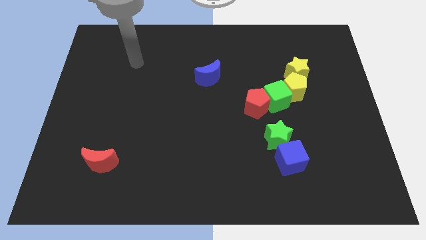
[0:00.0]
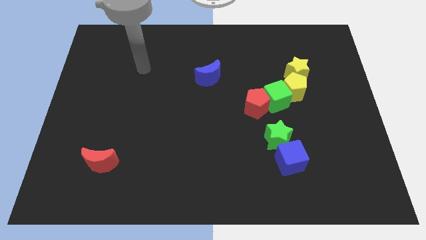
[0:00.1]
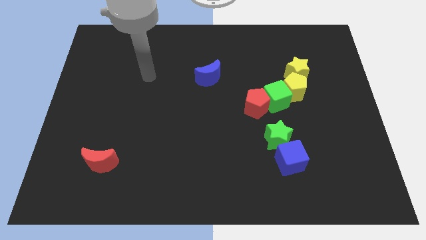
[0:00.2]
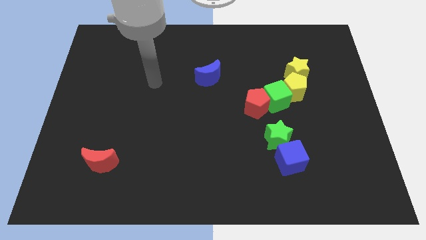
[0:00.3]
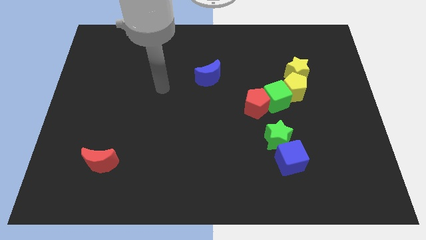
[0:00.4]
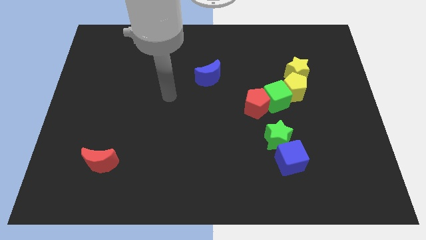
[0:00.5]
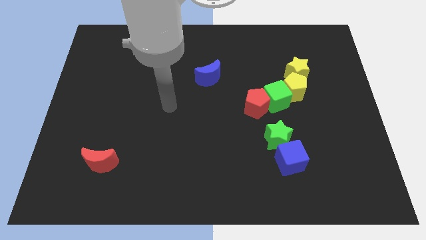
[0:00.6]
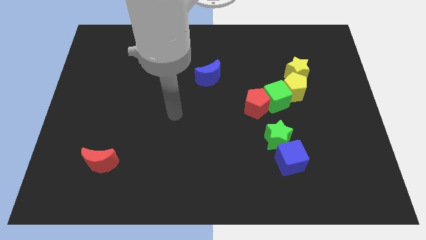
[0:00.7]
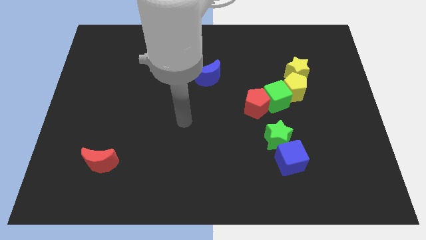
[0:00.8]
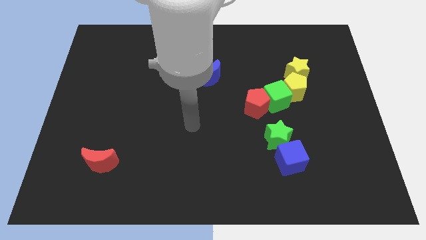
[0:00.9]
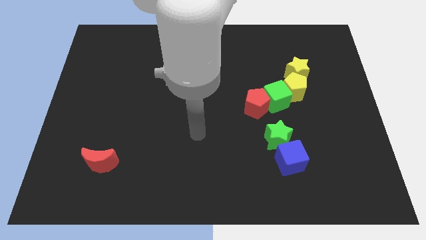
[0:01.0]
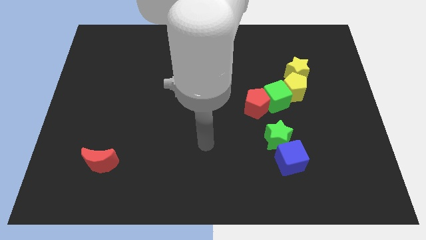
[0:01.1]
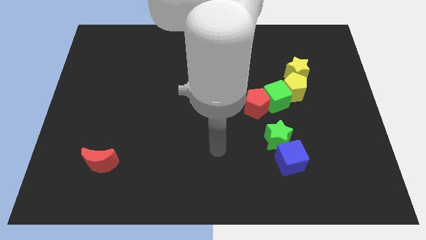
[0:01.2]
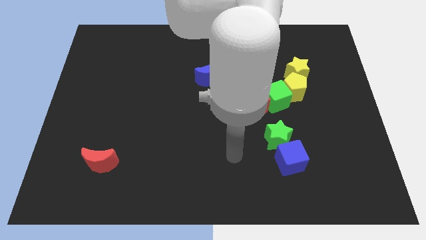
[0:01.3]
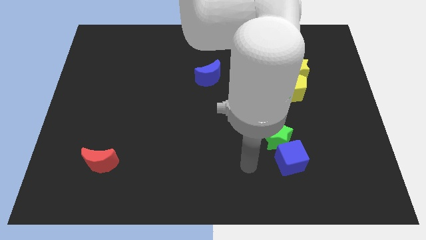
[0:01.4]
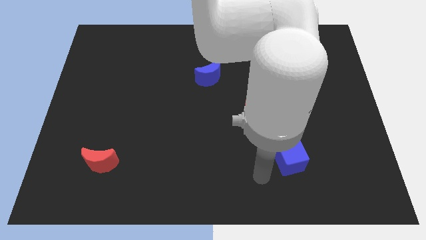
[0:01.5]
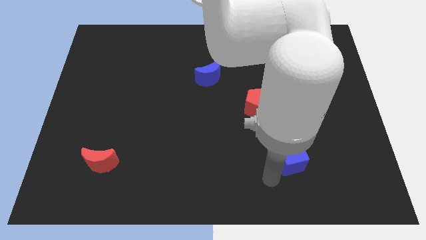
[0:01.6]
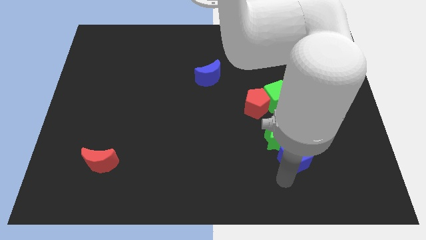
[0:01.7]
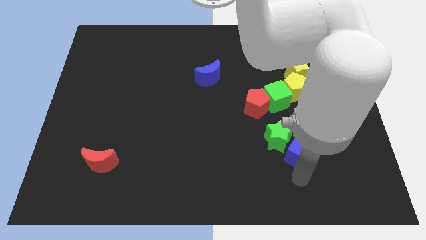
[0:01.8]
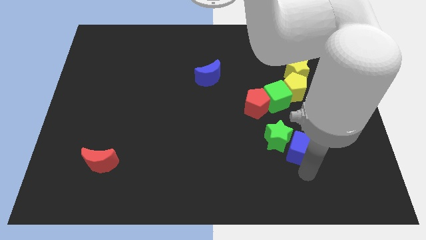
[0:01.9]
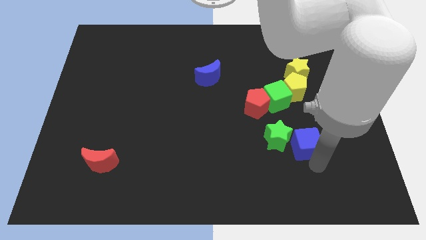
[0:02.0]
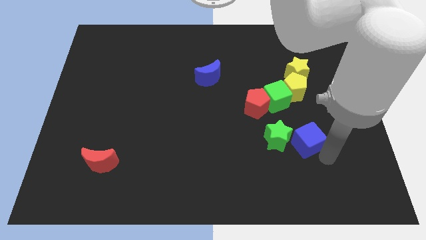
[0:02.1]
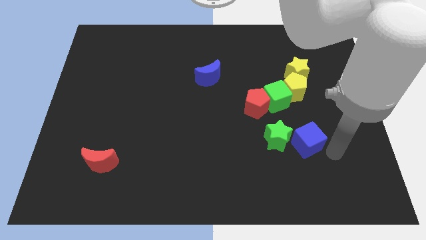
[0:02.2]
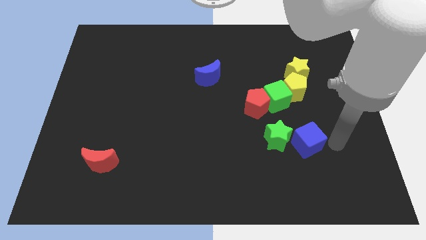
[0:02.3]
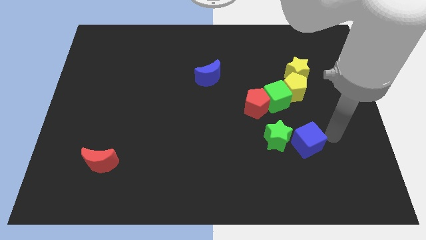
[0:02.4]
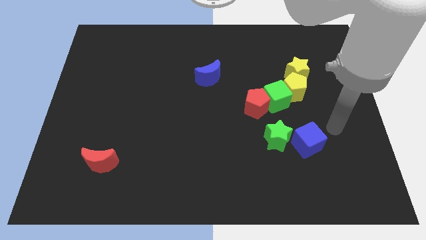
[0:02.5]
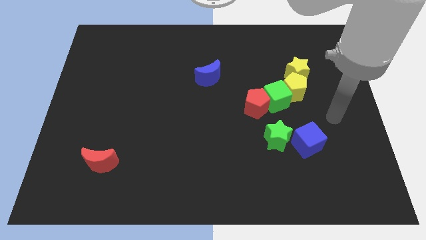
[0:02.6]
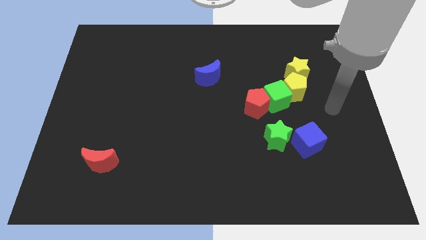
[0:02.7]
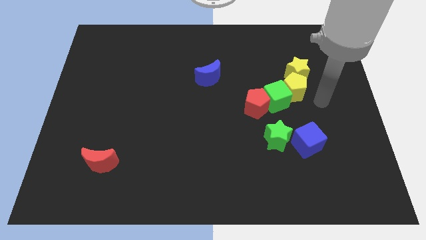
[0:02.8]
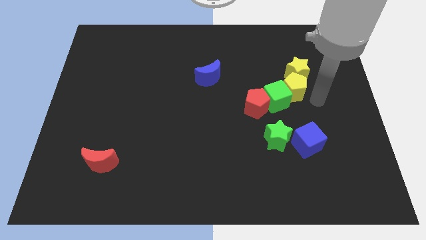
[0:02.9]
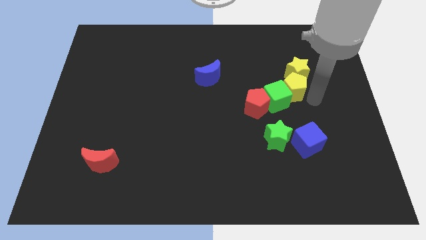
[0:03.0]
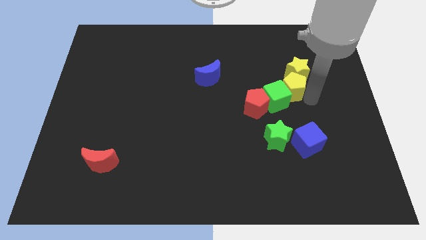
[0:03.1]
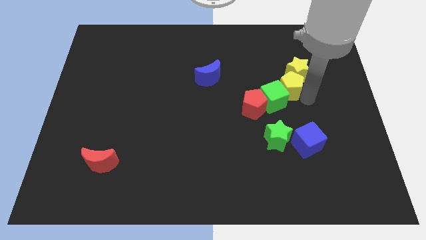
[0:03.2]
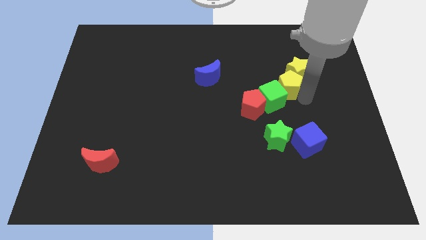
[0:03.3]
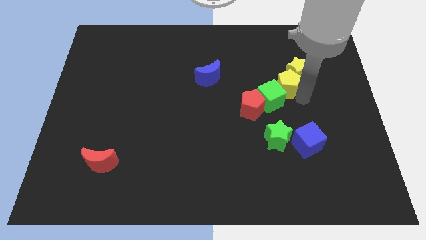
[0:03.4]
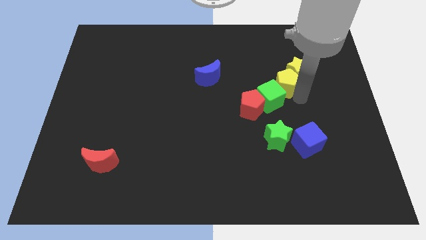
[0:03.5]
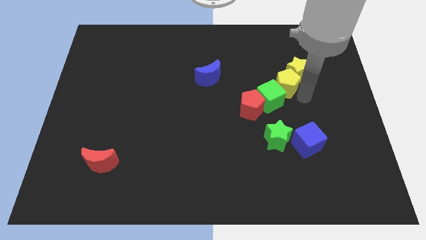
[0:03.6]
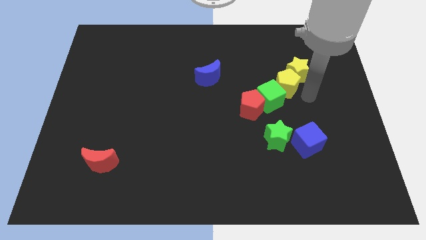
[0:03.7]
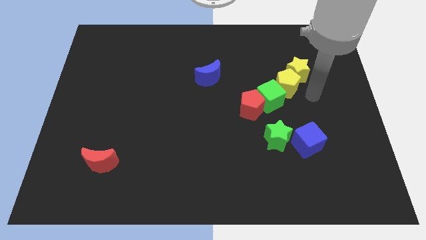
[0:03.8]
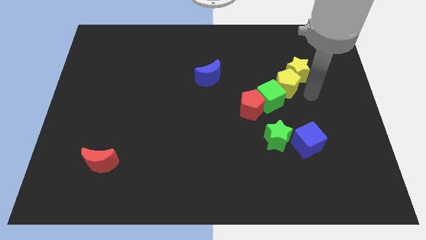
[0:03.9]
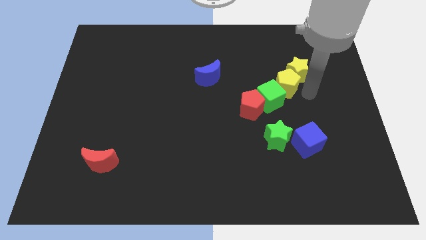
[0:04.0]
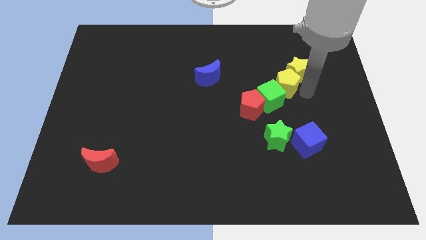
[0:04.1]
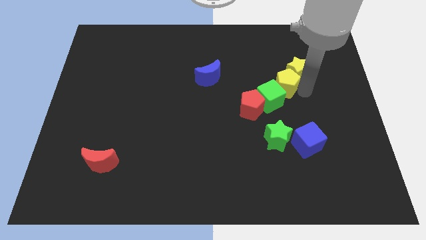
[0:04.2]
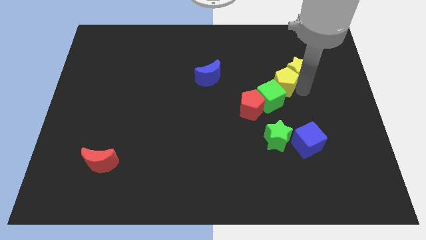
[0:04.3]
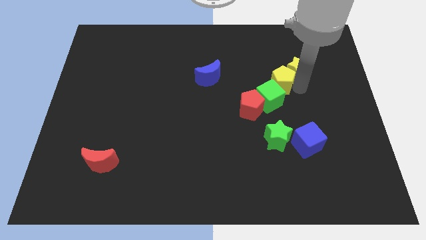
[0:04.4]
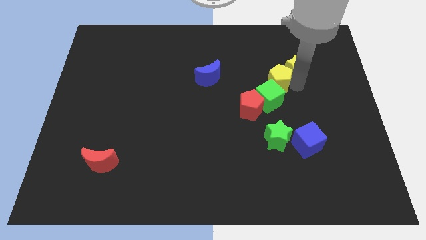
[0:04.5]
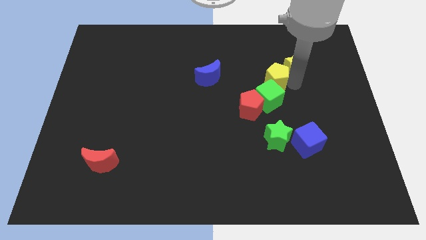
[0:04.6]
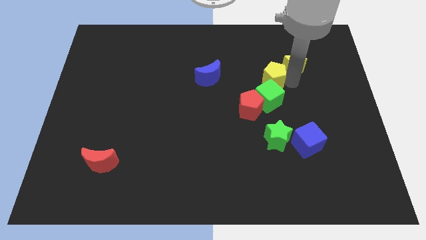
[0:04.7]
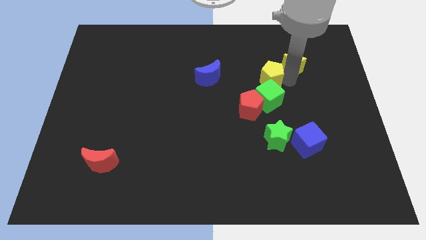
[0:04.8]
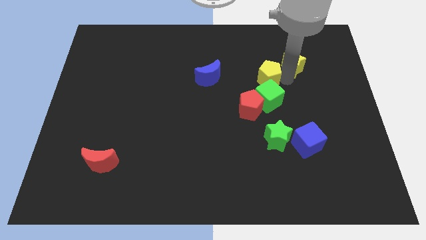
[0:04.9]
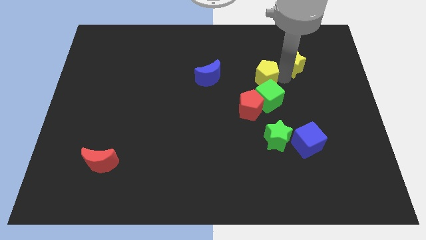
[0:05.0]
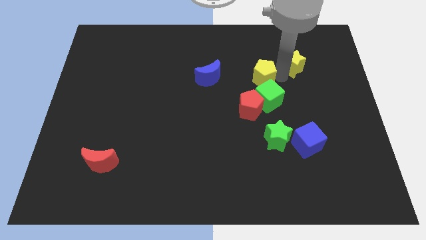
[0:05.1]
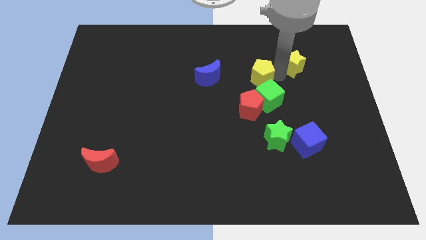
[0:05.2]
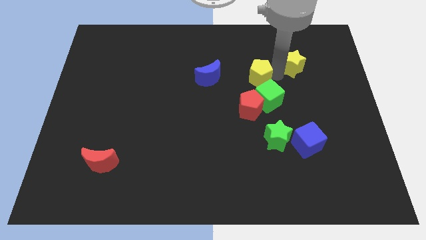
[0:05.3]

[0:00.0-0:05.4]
slightly move the yellow pentagon to the left

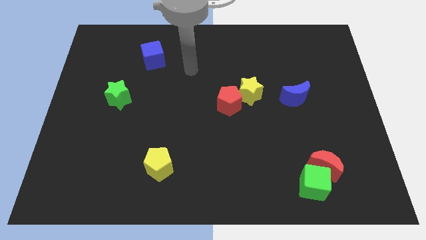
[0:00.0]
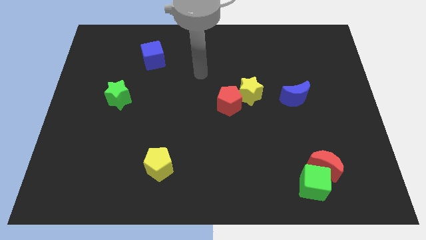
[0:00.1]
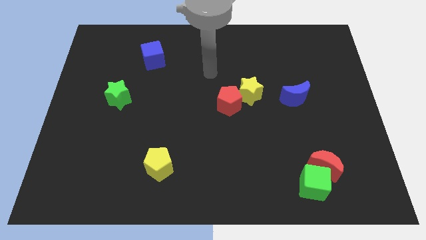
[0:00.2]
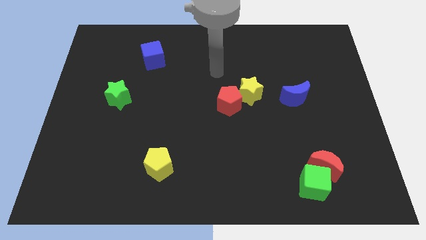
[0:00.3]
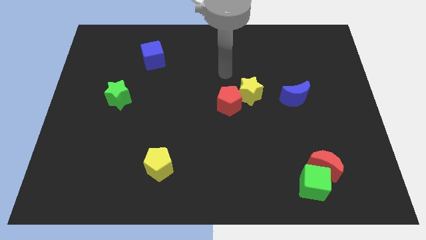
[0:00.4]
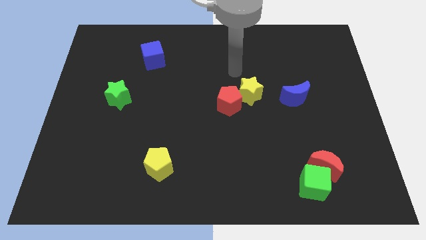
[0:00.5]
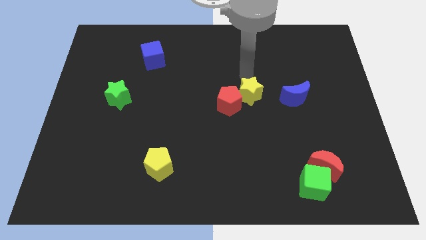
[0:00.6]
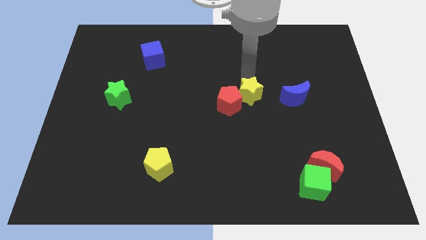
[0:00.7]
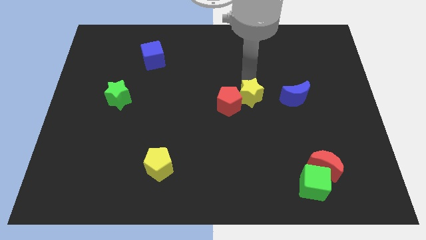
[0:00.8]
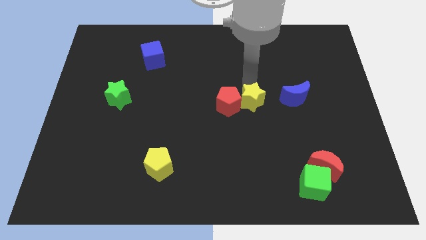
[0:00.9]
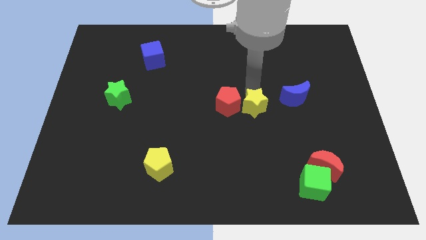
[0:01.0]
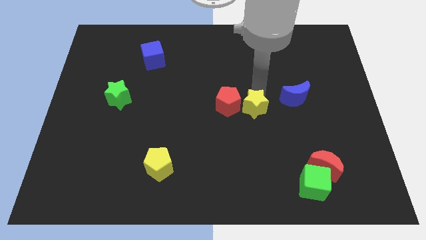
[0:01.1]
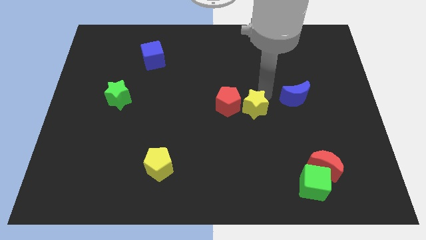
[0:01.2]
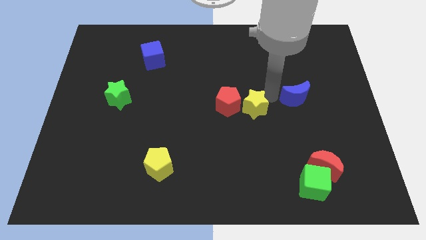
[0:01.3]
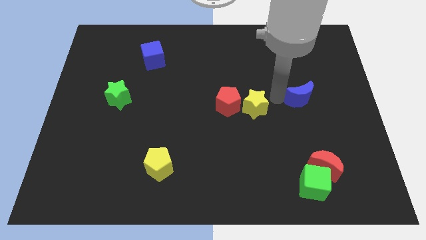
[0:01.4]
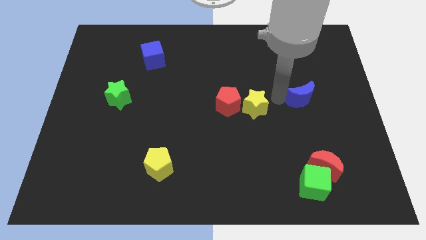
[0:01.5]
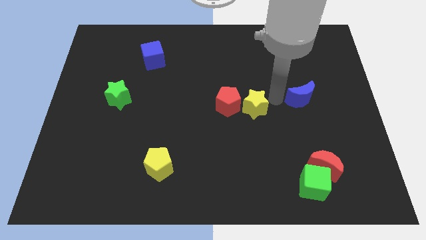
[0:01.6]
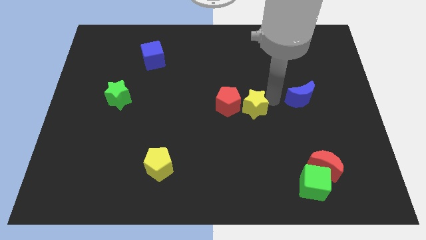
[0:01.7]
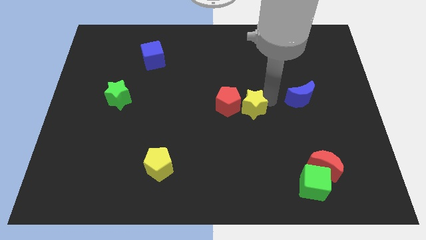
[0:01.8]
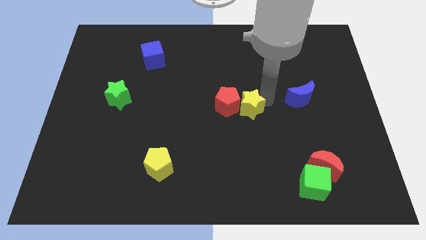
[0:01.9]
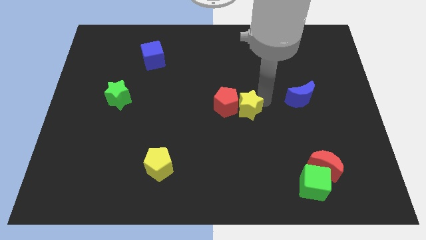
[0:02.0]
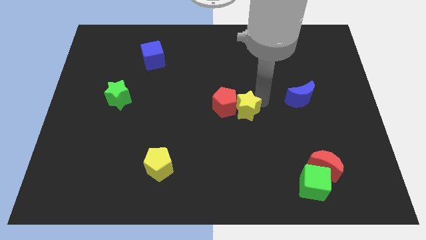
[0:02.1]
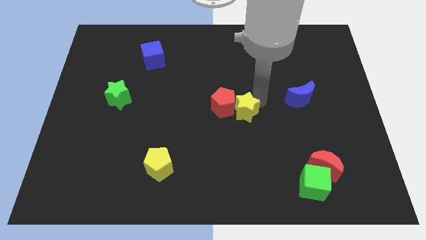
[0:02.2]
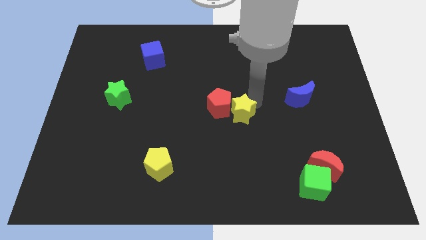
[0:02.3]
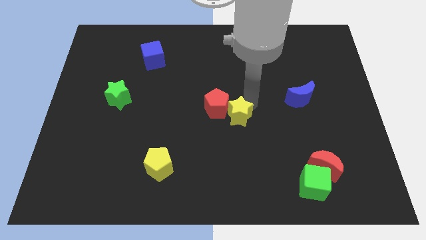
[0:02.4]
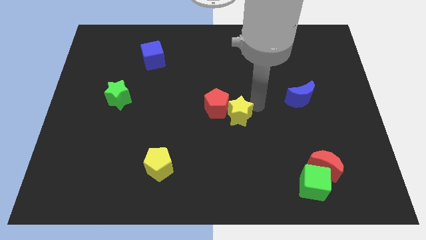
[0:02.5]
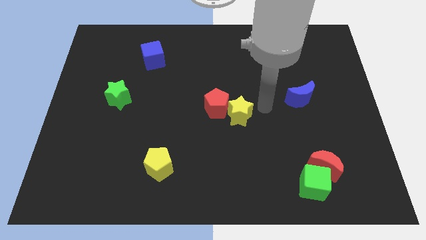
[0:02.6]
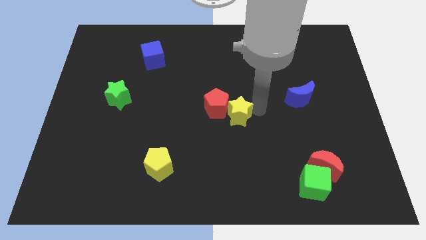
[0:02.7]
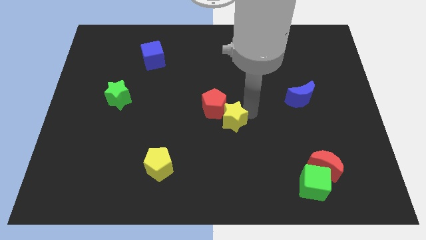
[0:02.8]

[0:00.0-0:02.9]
slightly push the yellow star downwards and then to the left
